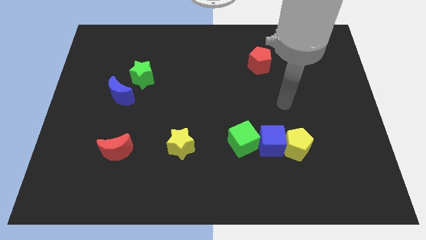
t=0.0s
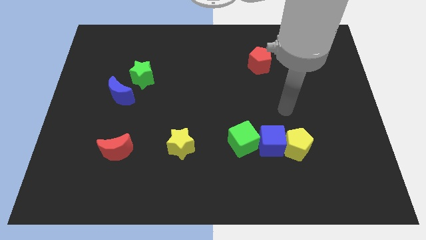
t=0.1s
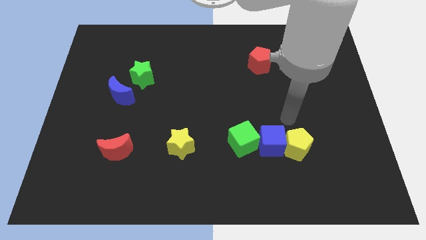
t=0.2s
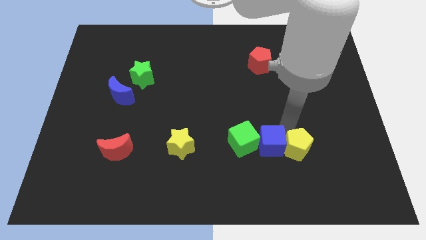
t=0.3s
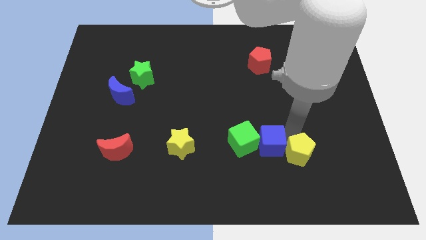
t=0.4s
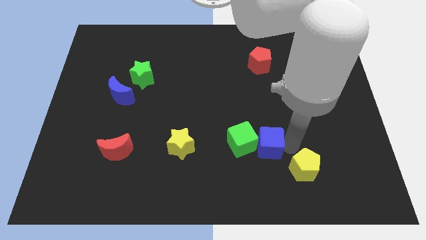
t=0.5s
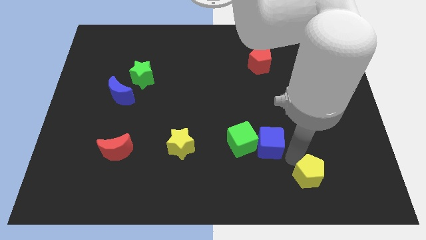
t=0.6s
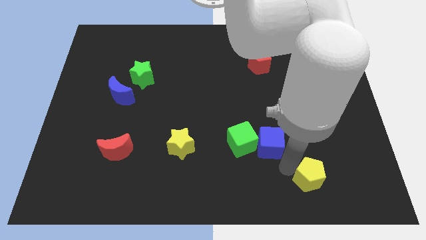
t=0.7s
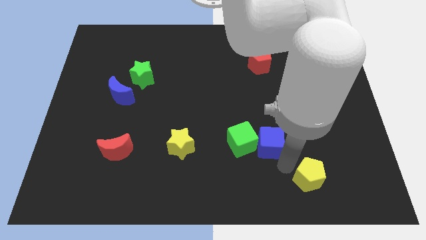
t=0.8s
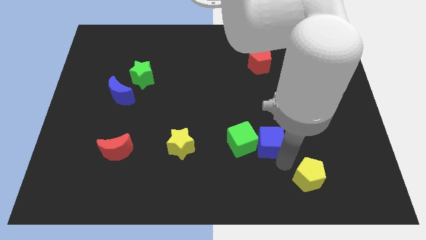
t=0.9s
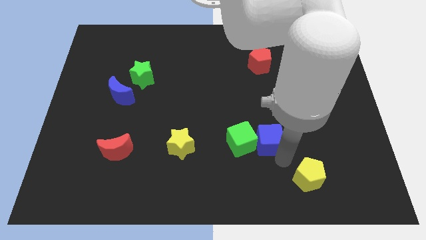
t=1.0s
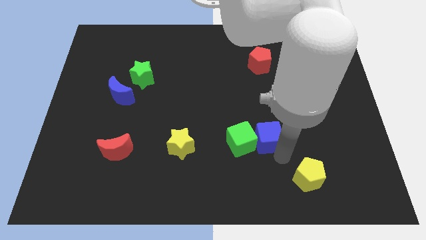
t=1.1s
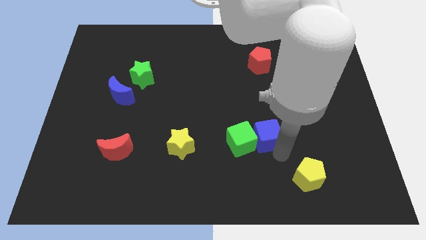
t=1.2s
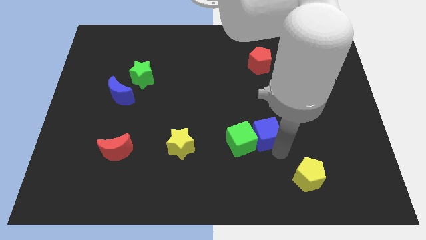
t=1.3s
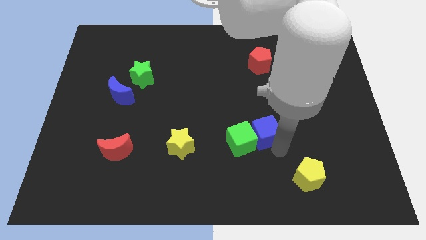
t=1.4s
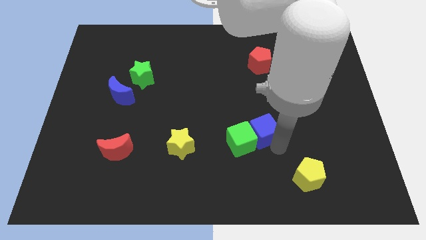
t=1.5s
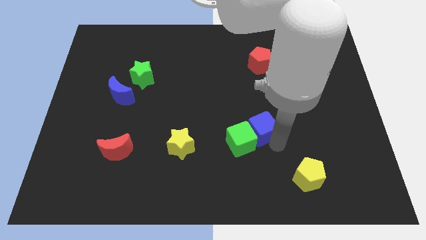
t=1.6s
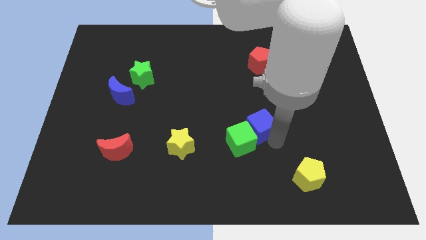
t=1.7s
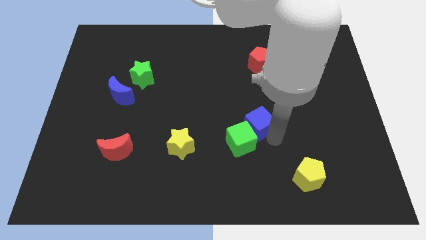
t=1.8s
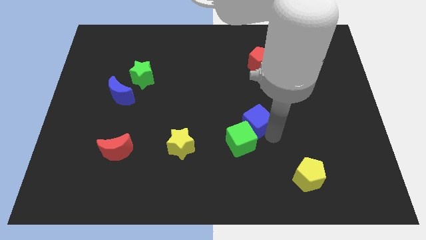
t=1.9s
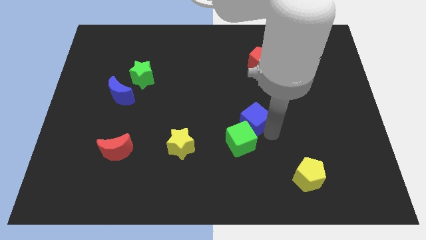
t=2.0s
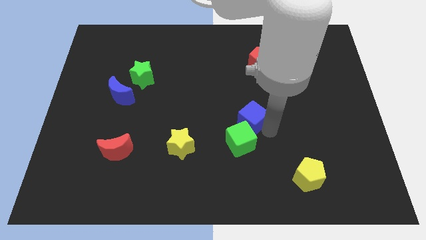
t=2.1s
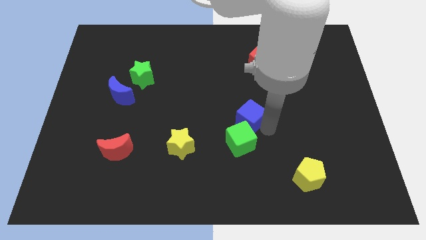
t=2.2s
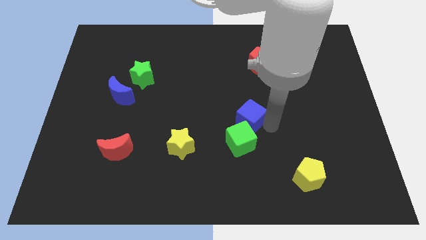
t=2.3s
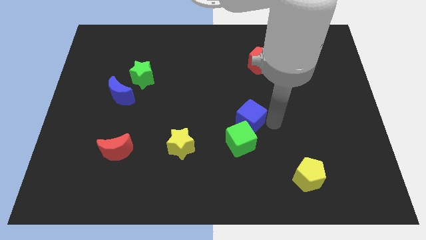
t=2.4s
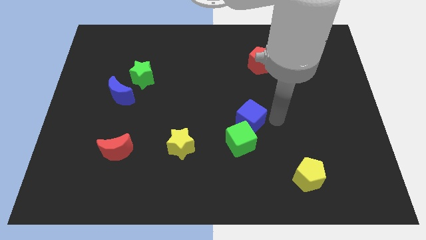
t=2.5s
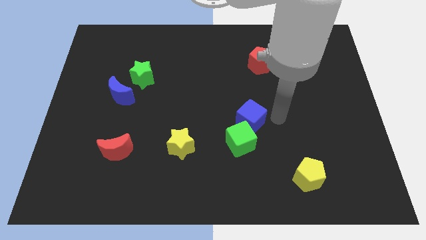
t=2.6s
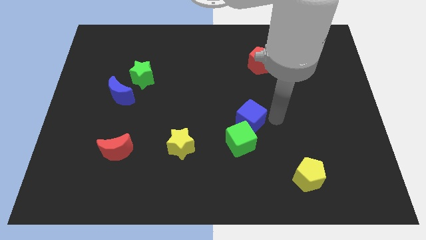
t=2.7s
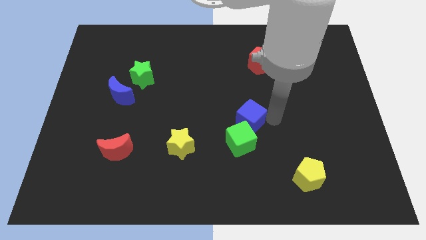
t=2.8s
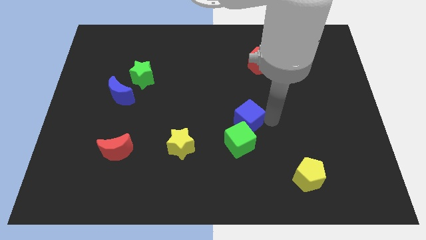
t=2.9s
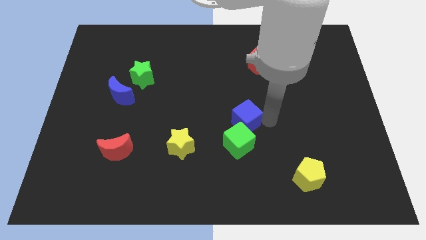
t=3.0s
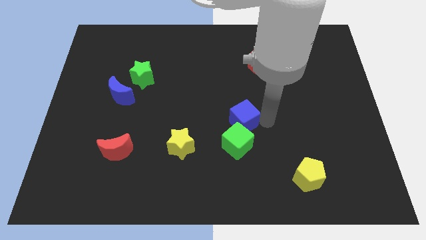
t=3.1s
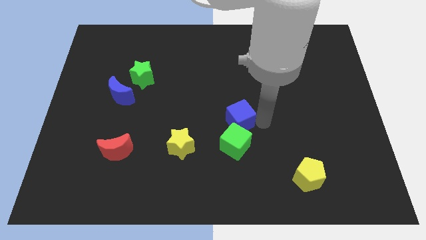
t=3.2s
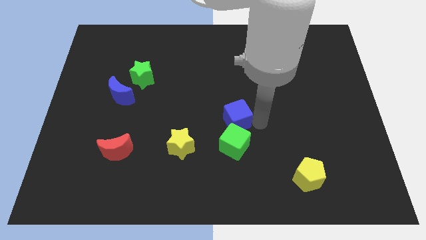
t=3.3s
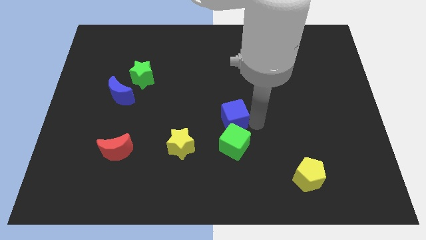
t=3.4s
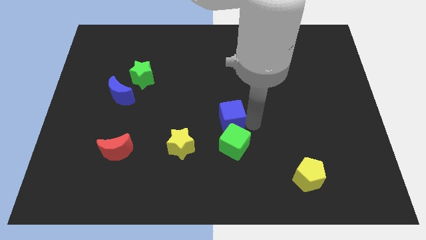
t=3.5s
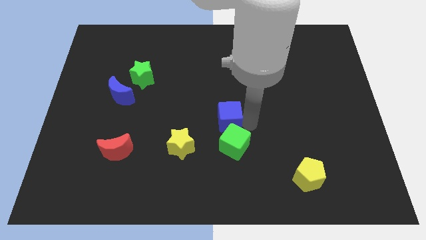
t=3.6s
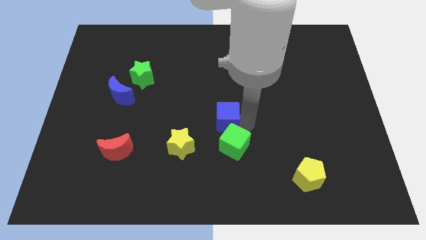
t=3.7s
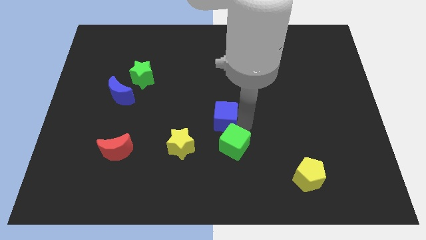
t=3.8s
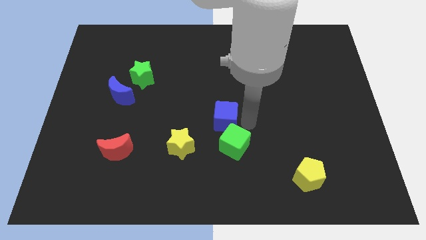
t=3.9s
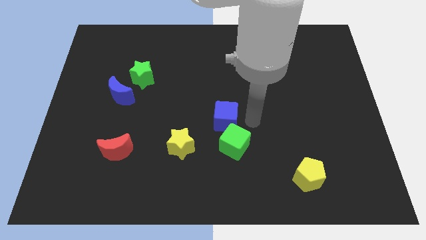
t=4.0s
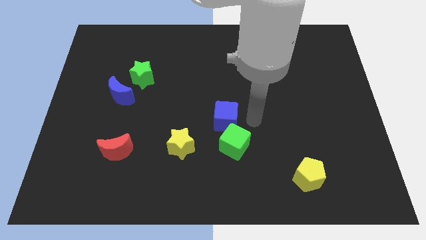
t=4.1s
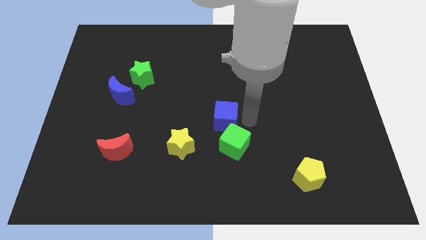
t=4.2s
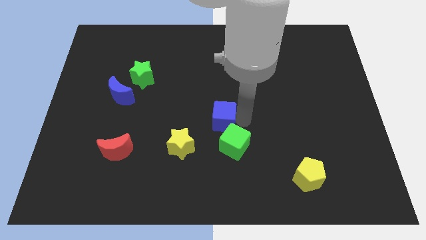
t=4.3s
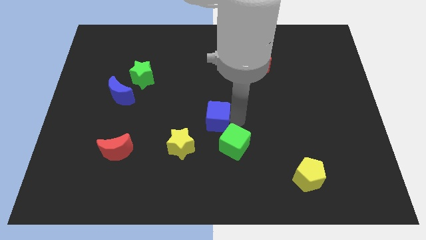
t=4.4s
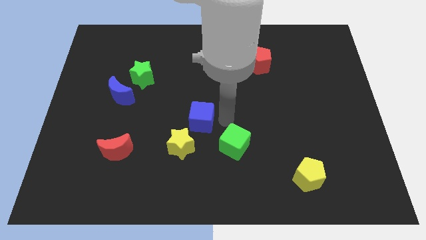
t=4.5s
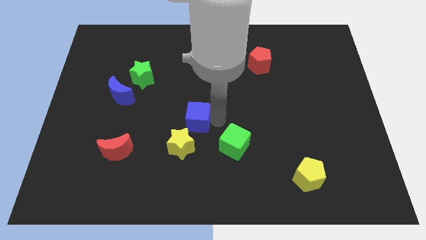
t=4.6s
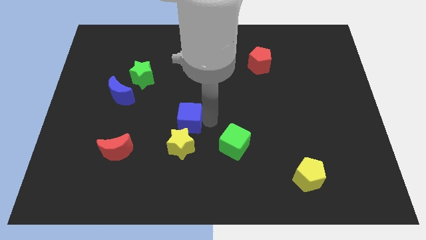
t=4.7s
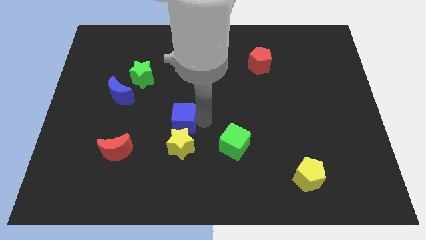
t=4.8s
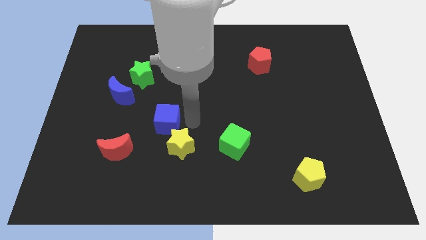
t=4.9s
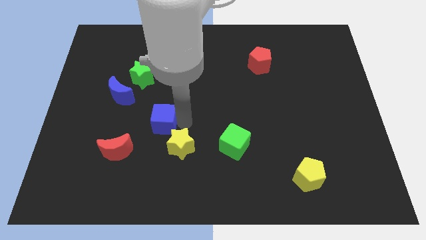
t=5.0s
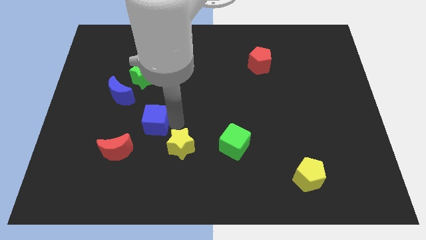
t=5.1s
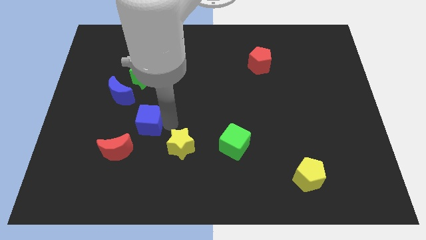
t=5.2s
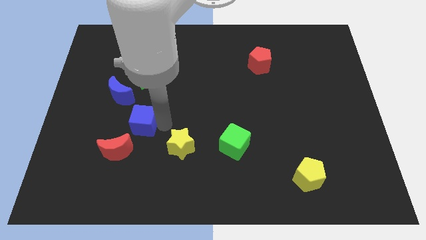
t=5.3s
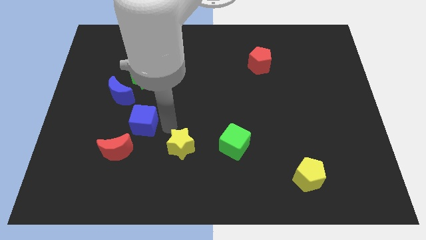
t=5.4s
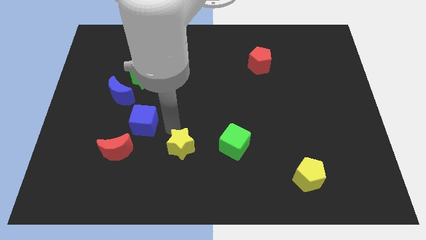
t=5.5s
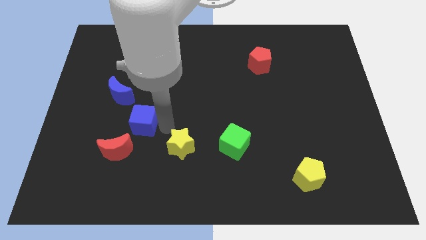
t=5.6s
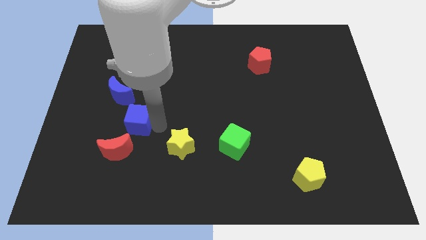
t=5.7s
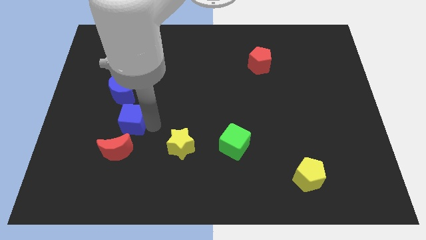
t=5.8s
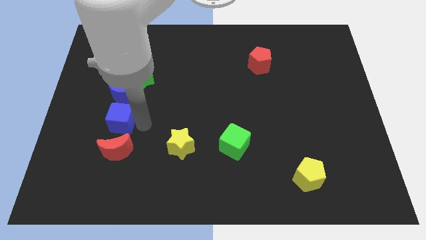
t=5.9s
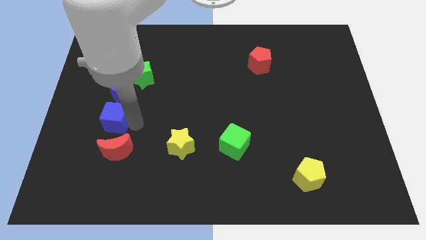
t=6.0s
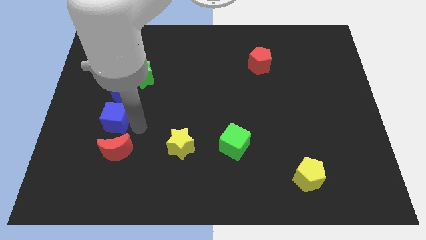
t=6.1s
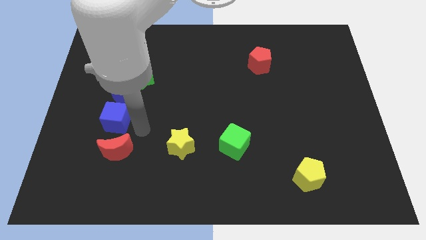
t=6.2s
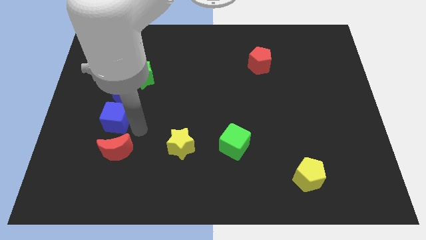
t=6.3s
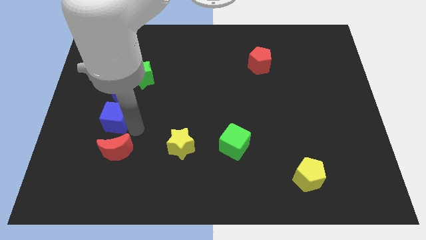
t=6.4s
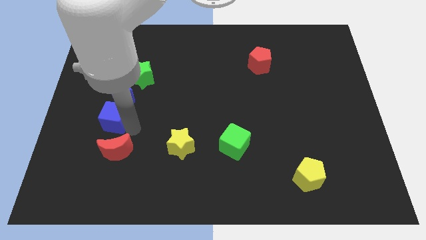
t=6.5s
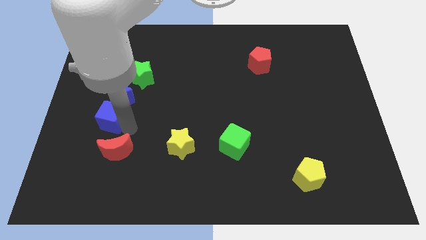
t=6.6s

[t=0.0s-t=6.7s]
push the blue cube diagonally down and to the left of the blue moon

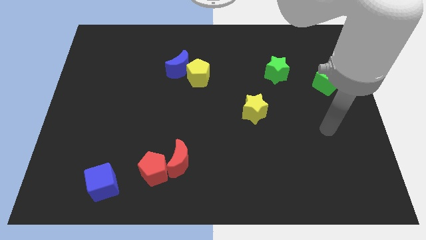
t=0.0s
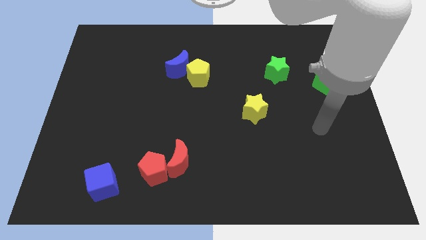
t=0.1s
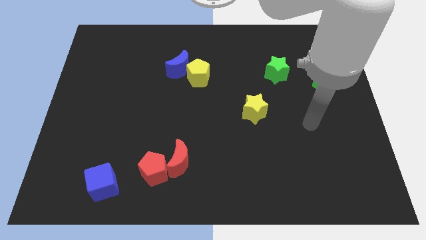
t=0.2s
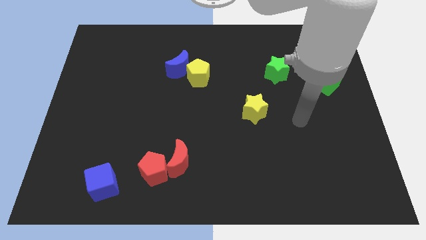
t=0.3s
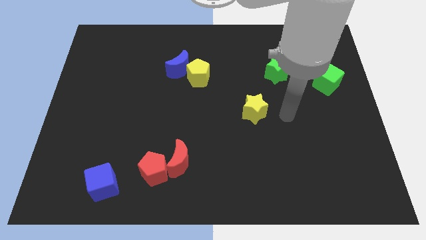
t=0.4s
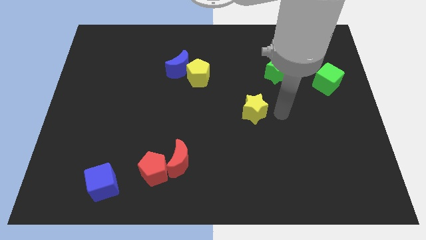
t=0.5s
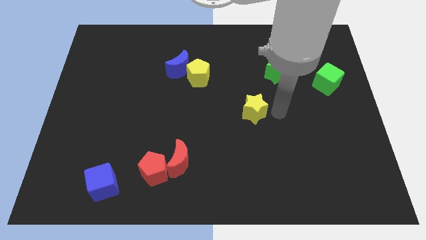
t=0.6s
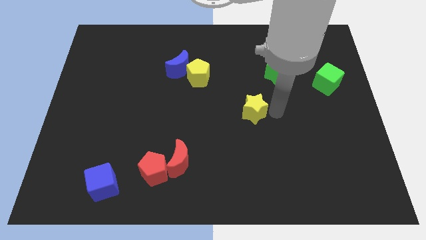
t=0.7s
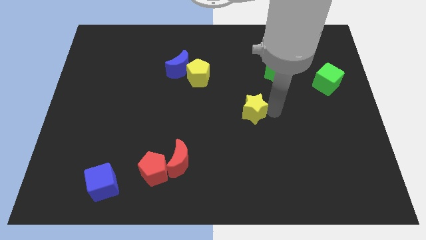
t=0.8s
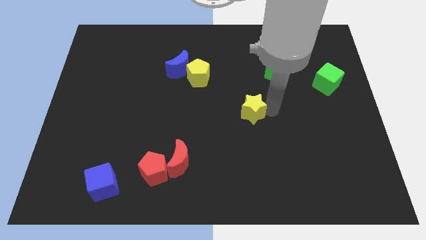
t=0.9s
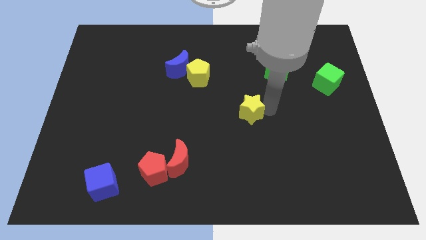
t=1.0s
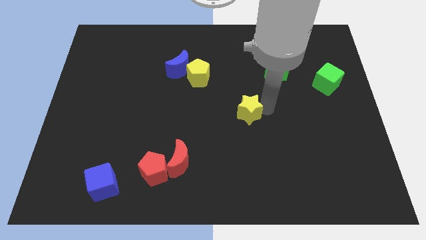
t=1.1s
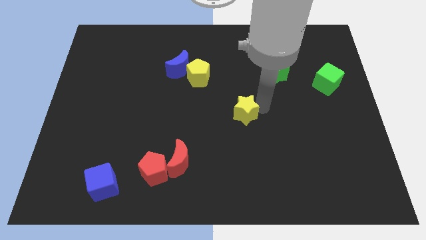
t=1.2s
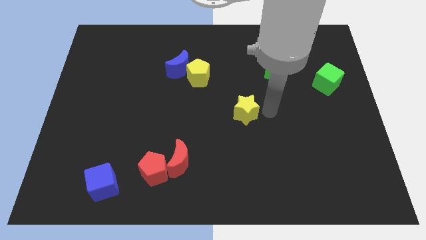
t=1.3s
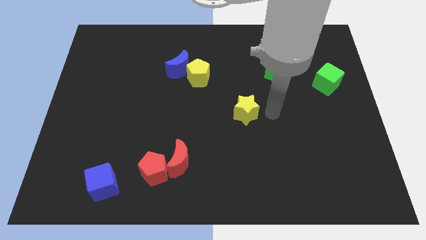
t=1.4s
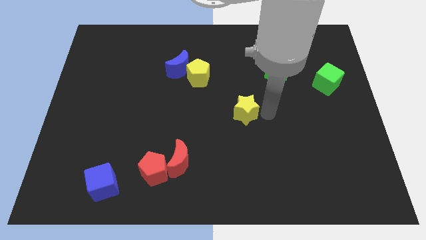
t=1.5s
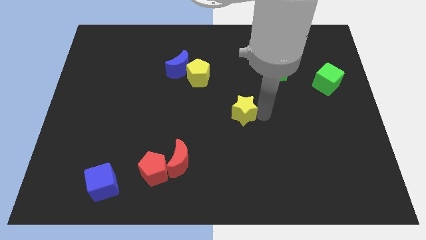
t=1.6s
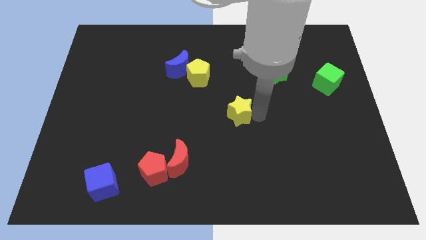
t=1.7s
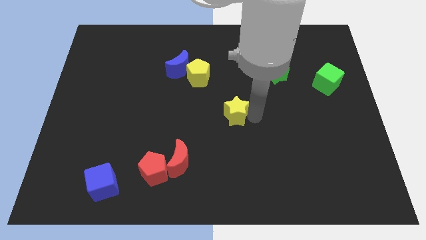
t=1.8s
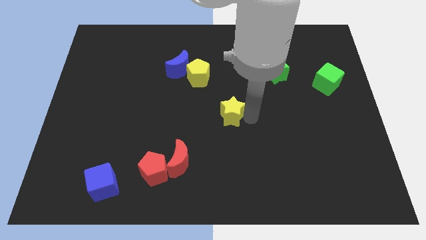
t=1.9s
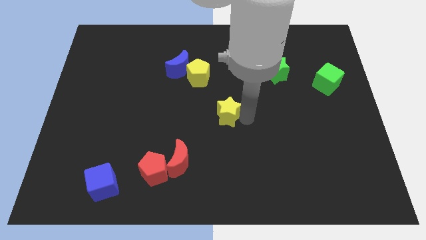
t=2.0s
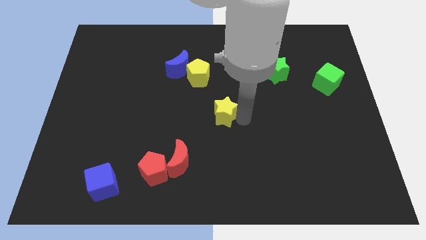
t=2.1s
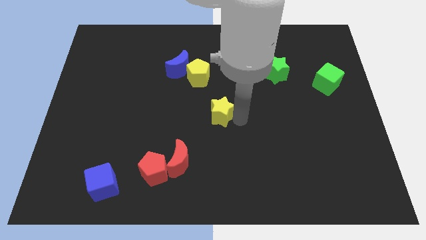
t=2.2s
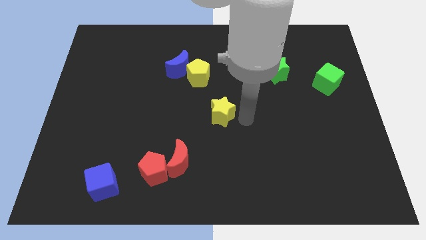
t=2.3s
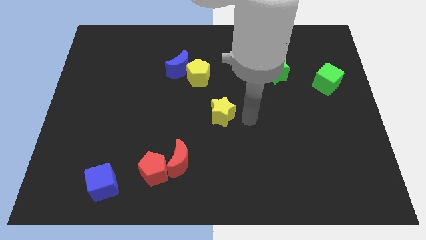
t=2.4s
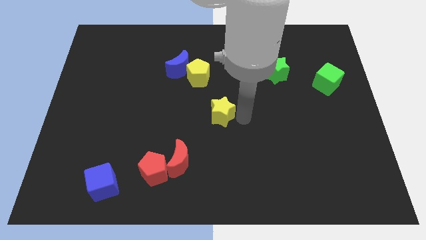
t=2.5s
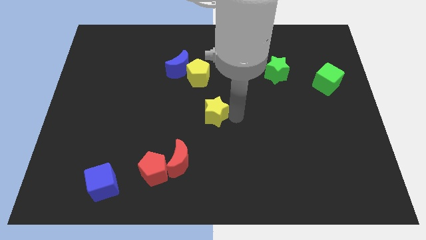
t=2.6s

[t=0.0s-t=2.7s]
push the yellow star below the yellow pentagon
